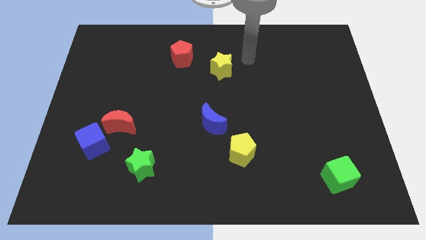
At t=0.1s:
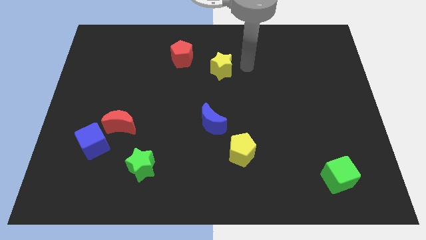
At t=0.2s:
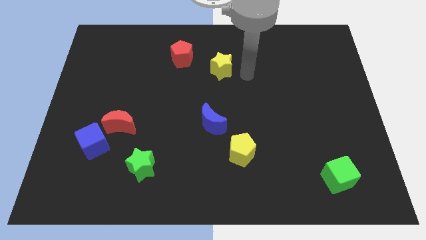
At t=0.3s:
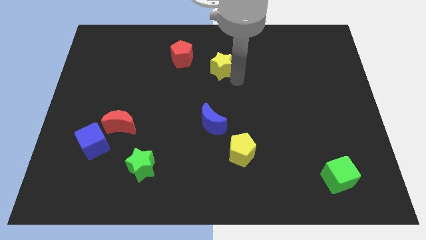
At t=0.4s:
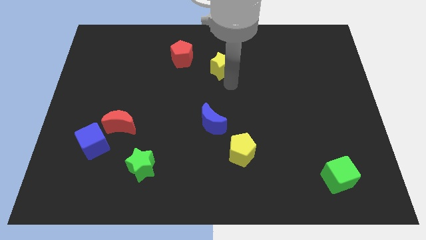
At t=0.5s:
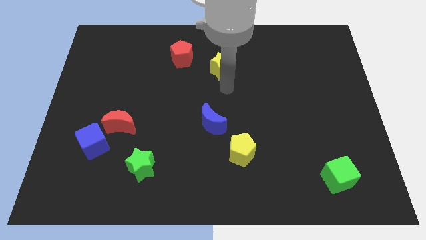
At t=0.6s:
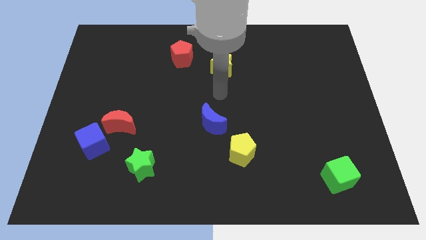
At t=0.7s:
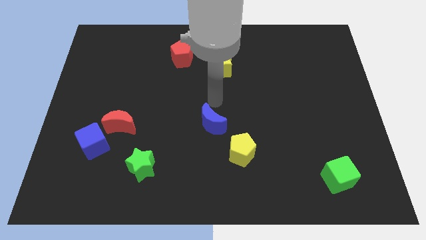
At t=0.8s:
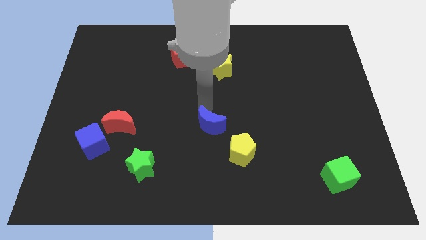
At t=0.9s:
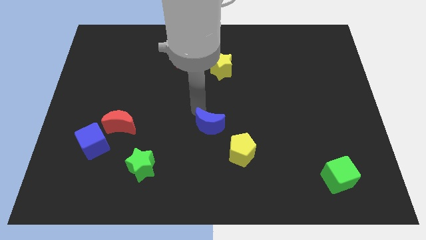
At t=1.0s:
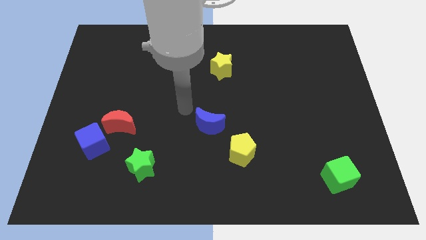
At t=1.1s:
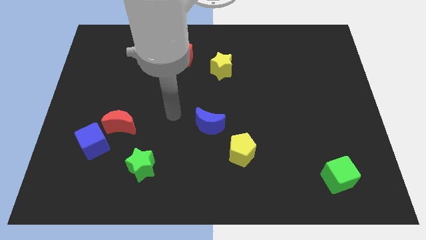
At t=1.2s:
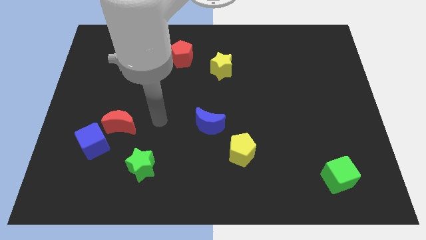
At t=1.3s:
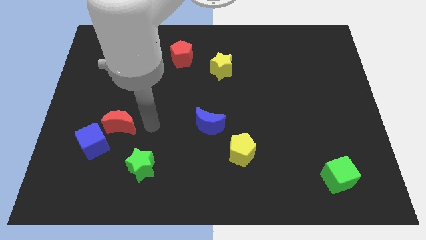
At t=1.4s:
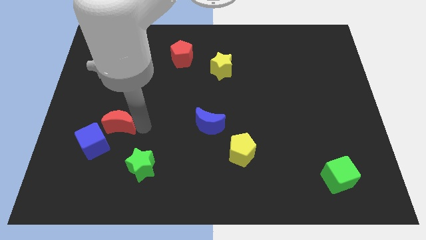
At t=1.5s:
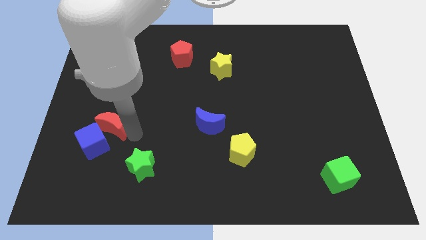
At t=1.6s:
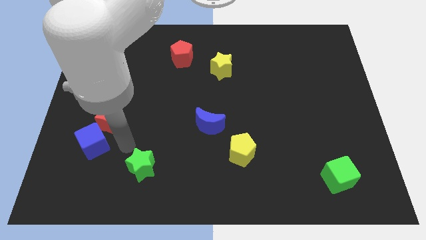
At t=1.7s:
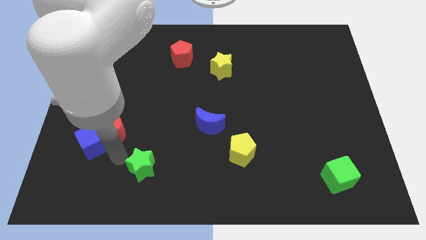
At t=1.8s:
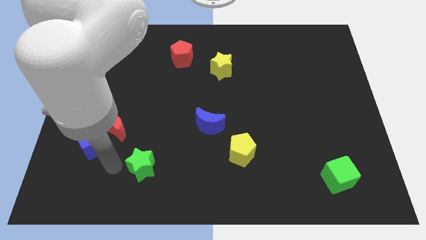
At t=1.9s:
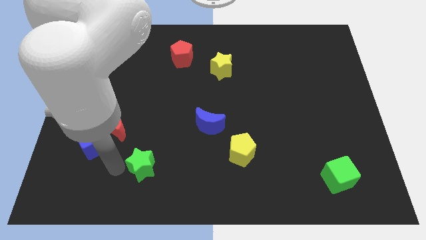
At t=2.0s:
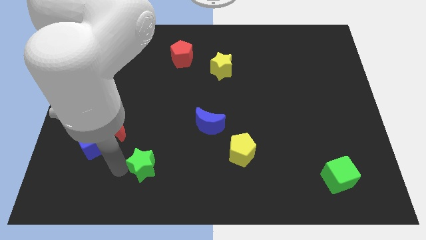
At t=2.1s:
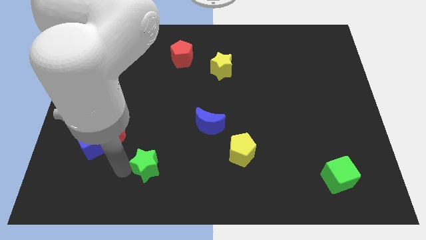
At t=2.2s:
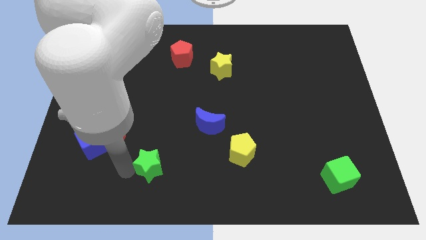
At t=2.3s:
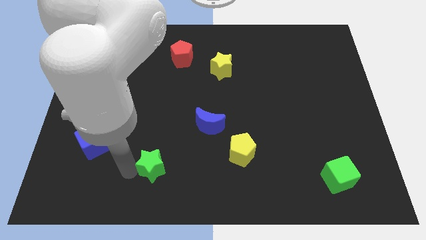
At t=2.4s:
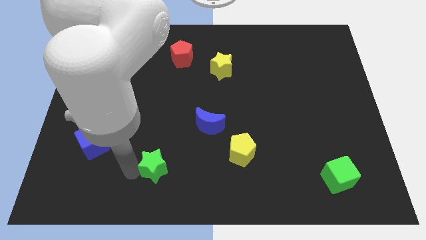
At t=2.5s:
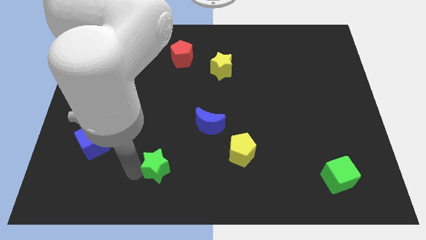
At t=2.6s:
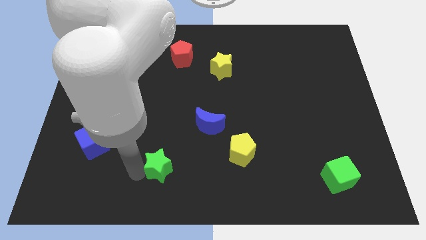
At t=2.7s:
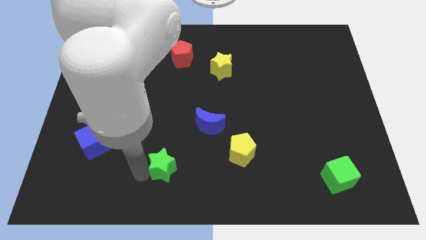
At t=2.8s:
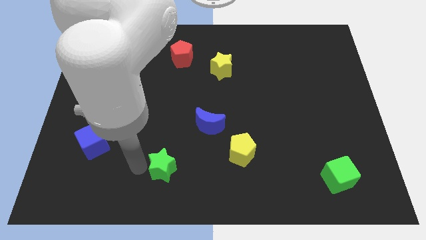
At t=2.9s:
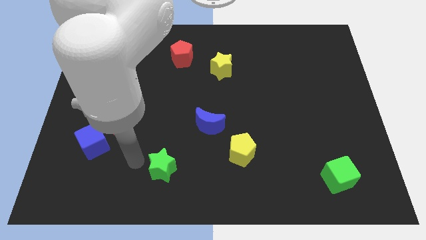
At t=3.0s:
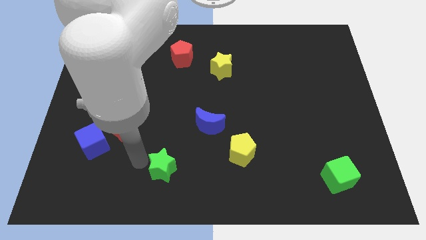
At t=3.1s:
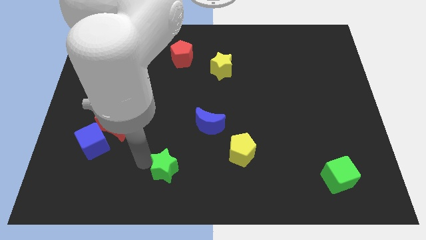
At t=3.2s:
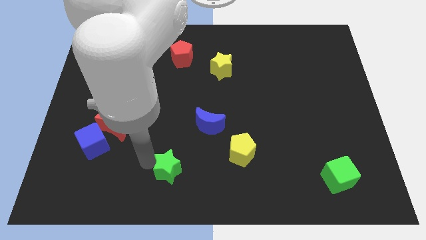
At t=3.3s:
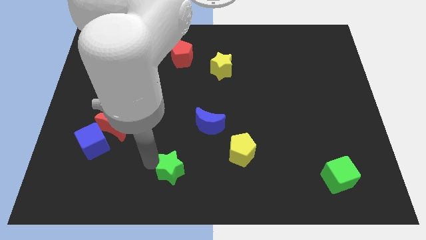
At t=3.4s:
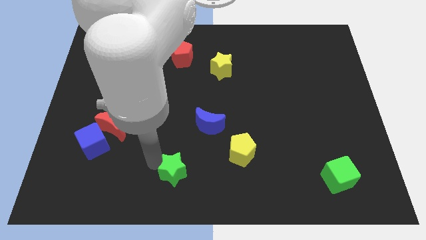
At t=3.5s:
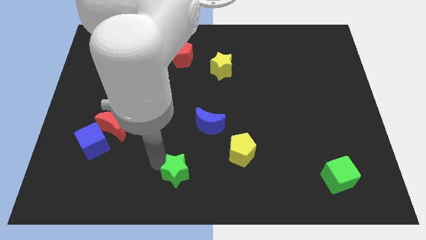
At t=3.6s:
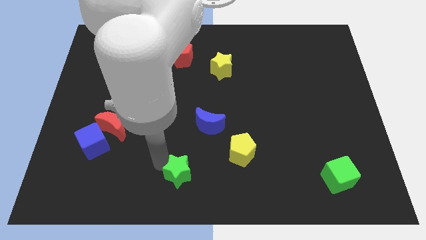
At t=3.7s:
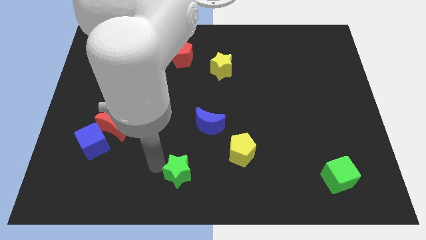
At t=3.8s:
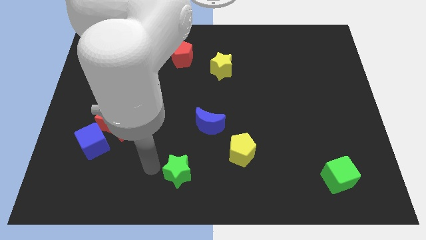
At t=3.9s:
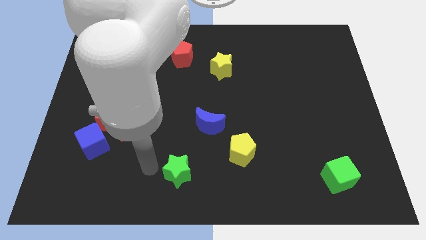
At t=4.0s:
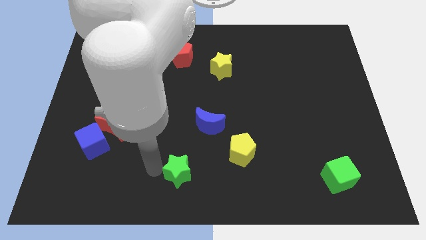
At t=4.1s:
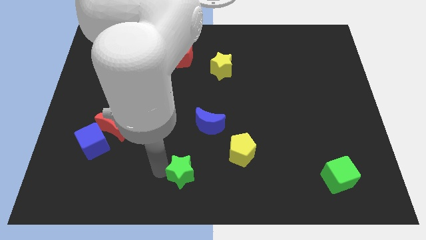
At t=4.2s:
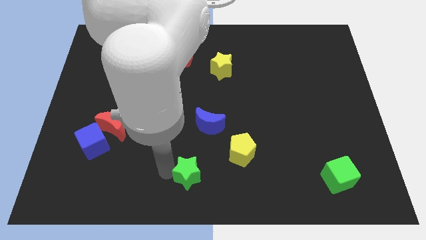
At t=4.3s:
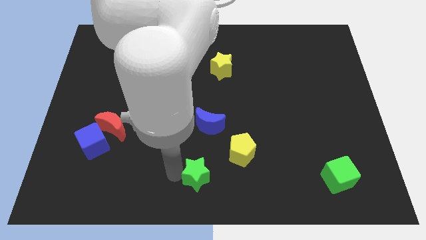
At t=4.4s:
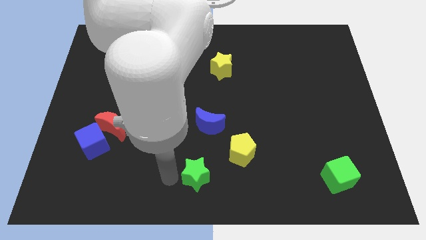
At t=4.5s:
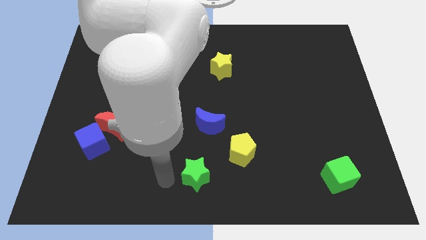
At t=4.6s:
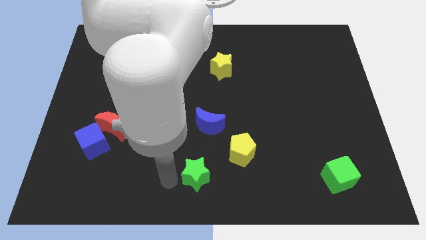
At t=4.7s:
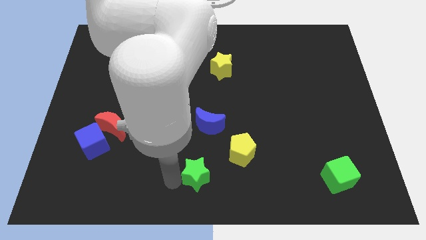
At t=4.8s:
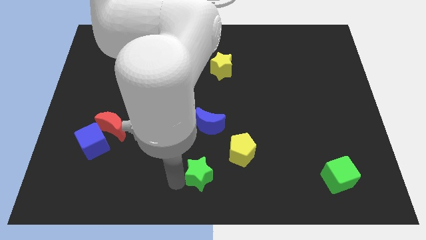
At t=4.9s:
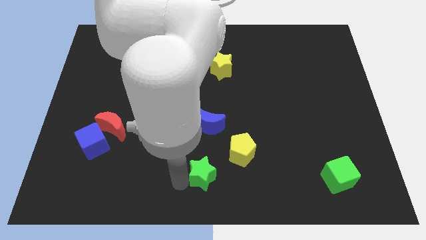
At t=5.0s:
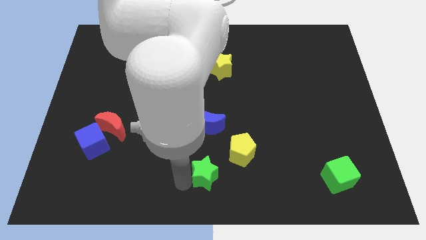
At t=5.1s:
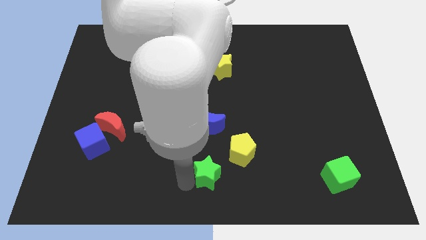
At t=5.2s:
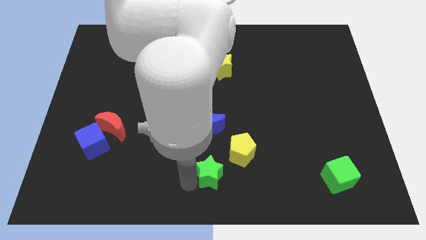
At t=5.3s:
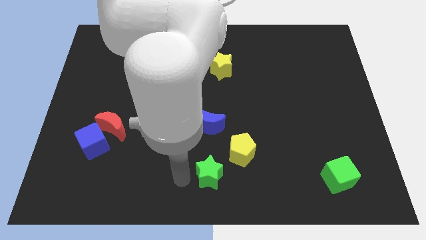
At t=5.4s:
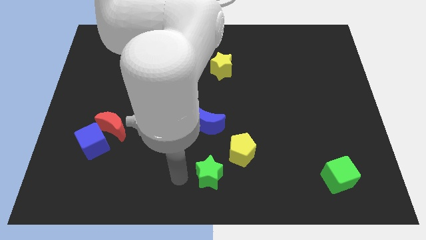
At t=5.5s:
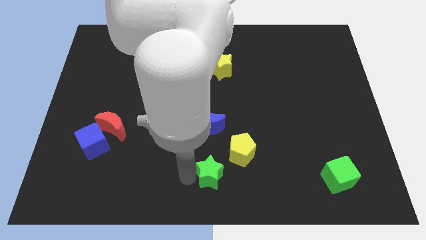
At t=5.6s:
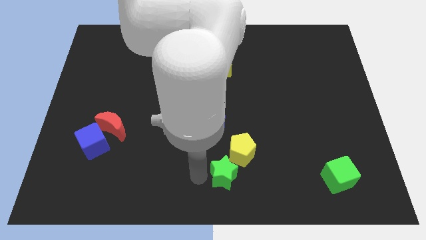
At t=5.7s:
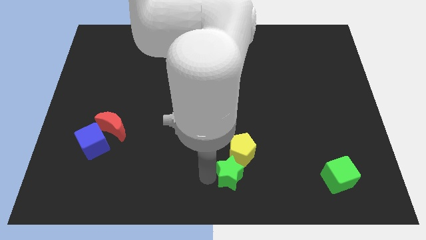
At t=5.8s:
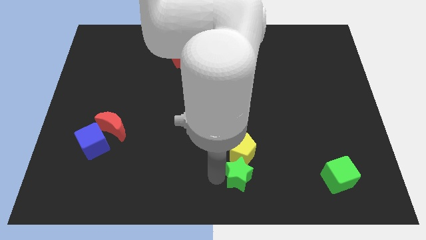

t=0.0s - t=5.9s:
push the green star right

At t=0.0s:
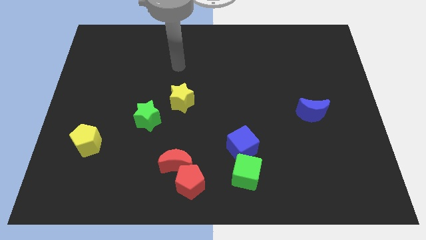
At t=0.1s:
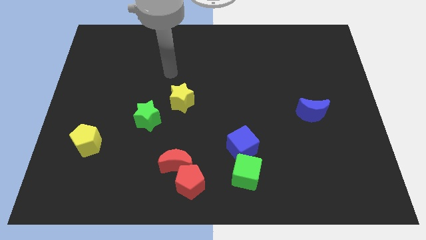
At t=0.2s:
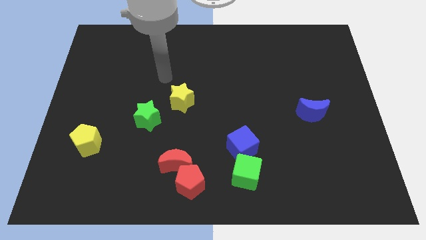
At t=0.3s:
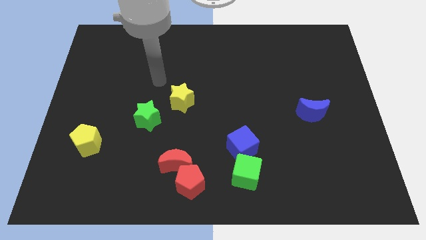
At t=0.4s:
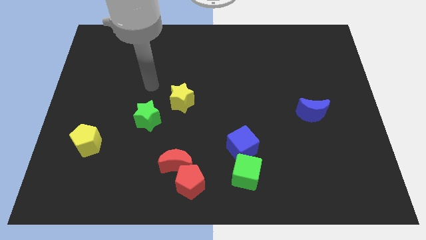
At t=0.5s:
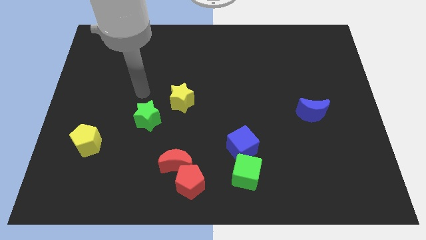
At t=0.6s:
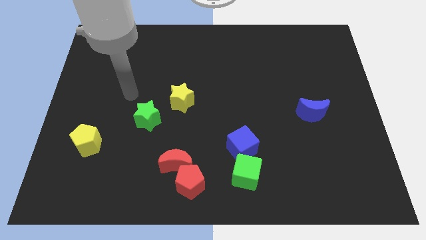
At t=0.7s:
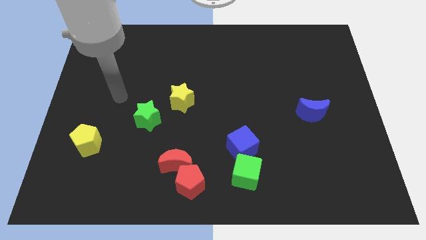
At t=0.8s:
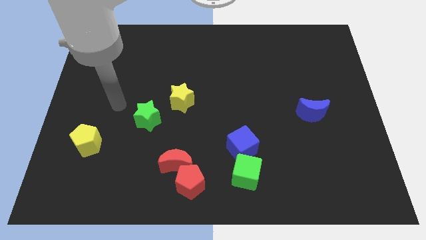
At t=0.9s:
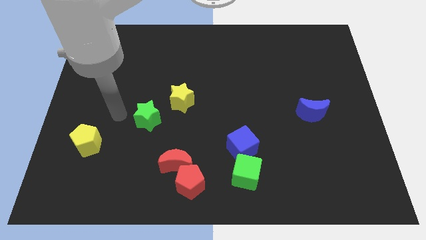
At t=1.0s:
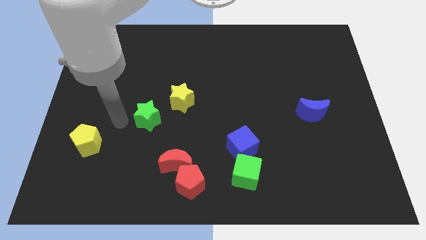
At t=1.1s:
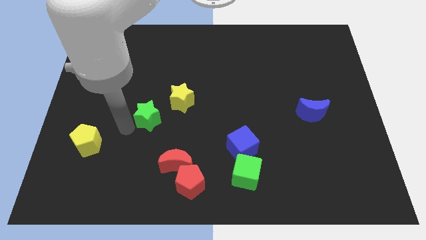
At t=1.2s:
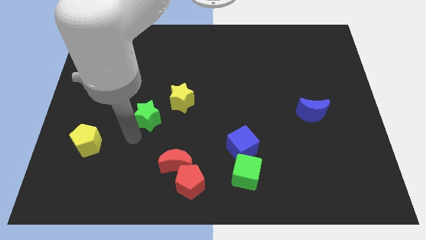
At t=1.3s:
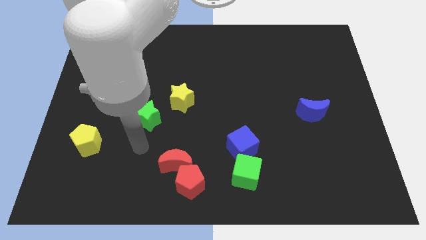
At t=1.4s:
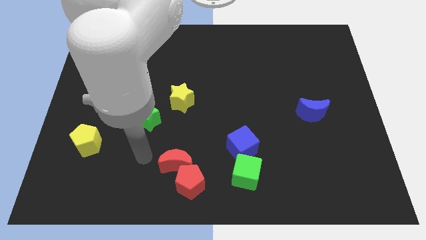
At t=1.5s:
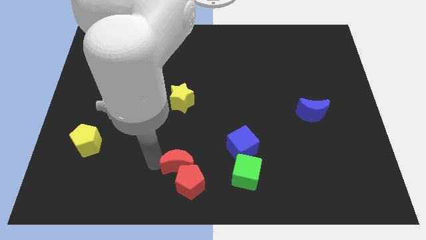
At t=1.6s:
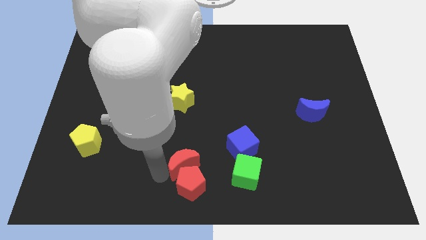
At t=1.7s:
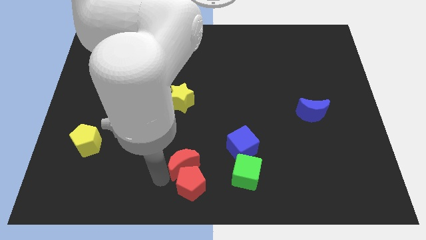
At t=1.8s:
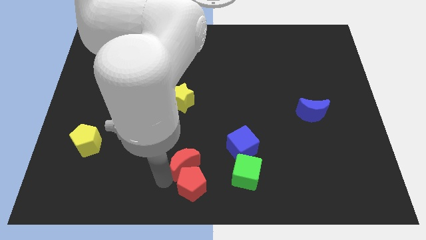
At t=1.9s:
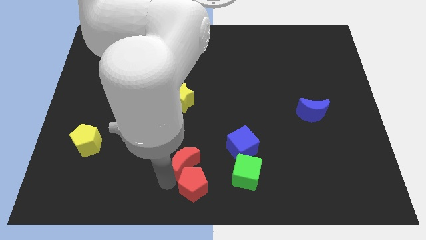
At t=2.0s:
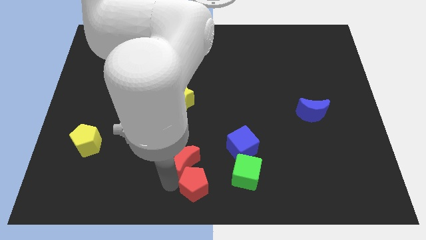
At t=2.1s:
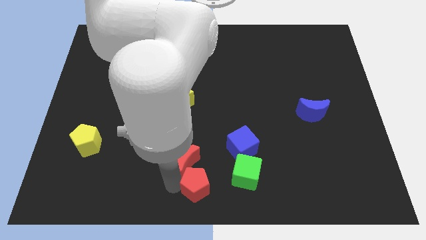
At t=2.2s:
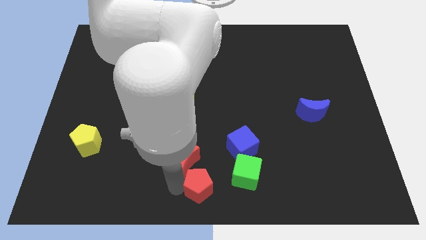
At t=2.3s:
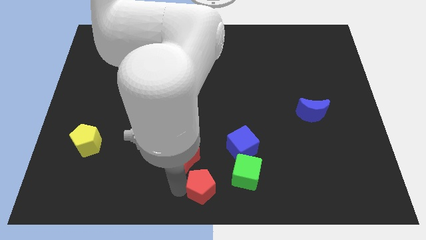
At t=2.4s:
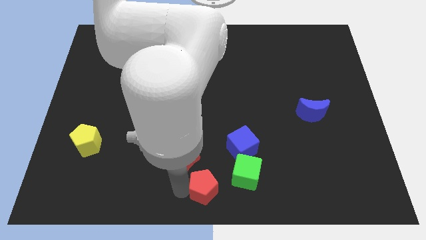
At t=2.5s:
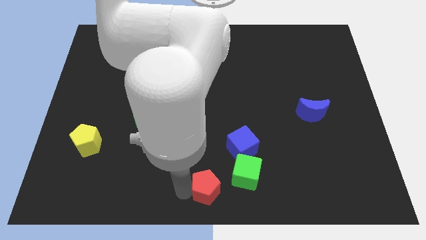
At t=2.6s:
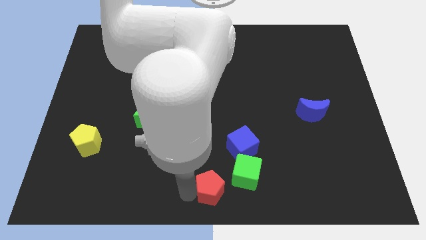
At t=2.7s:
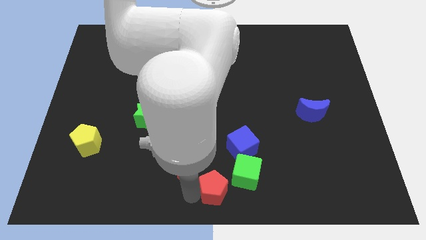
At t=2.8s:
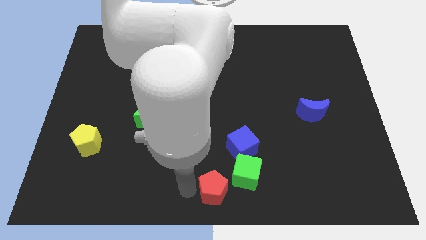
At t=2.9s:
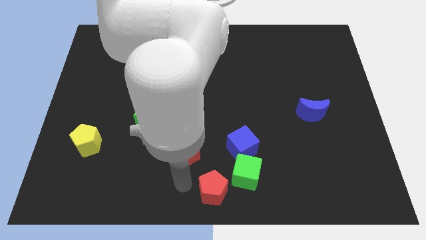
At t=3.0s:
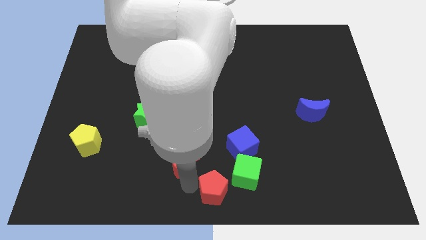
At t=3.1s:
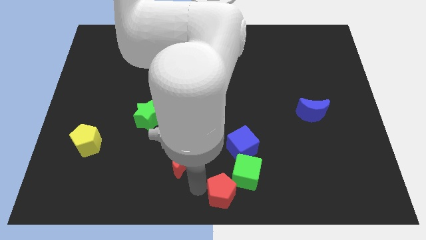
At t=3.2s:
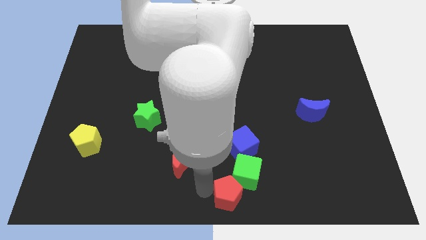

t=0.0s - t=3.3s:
push the red pentagon a little bit to the right
